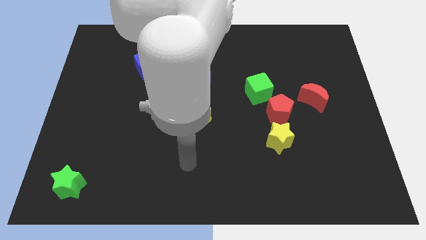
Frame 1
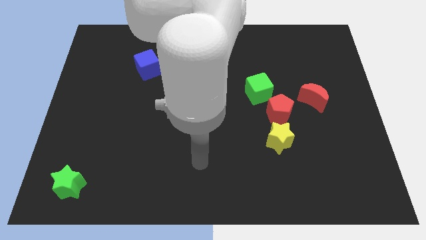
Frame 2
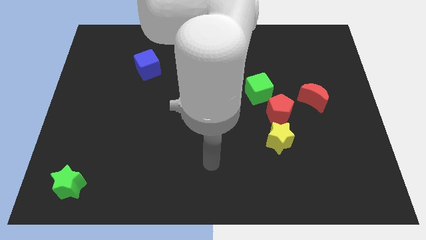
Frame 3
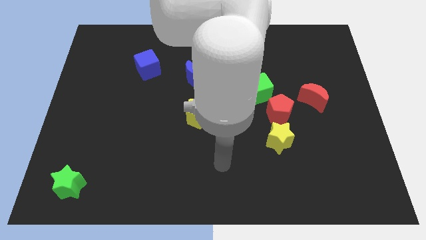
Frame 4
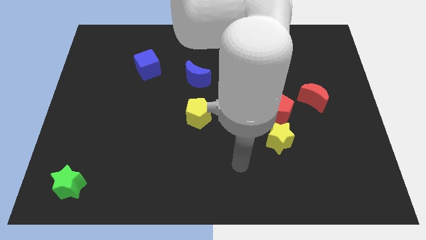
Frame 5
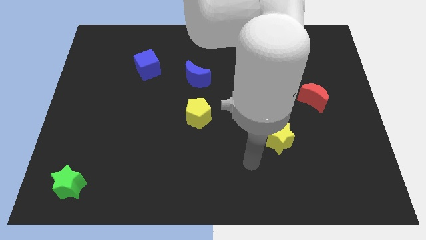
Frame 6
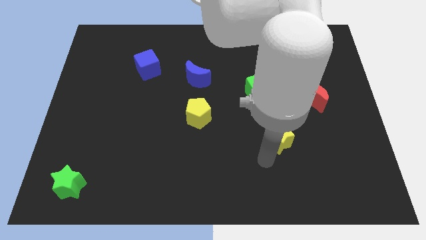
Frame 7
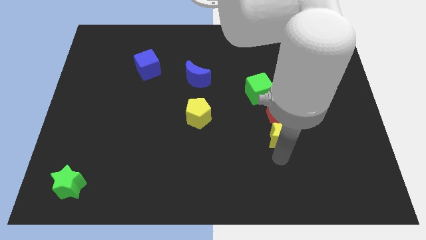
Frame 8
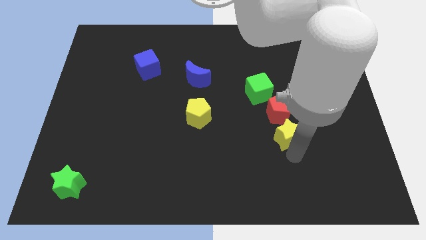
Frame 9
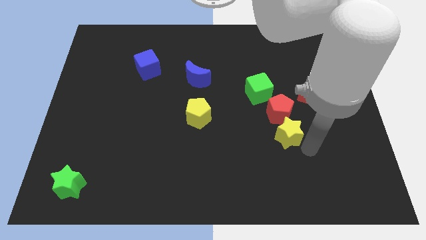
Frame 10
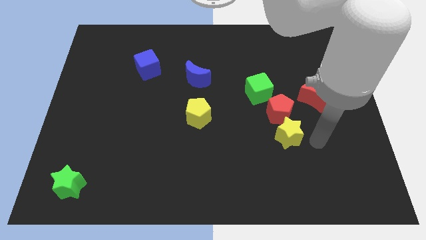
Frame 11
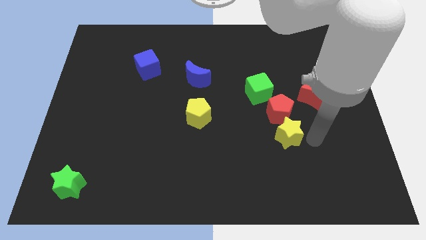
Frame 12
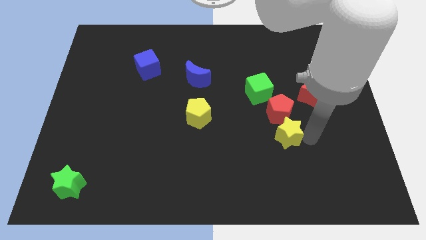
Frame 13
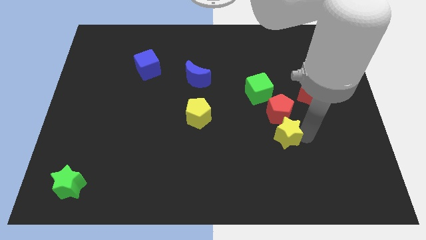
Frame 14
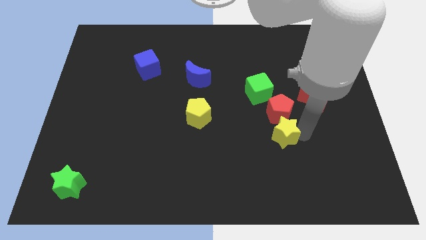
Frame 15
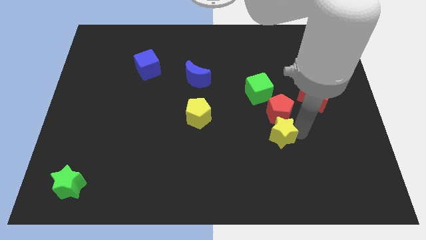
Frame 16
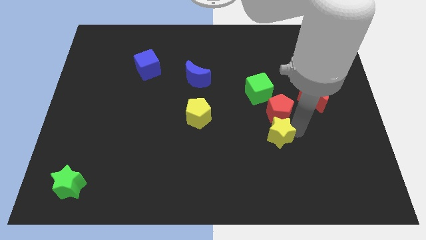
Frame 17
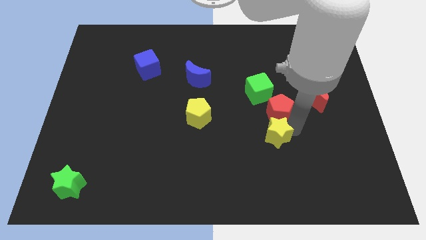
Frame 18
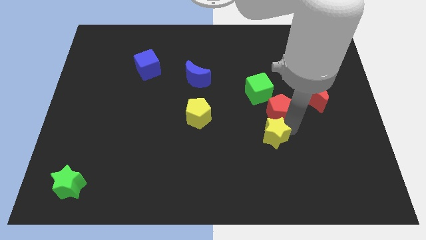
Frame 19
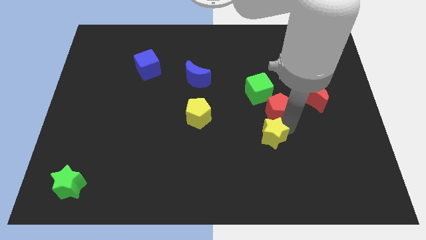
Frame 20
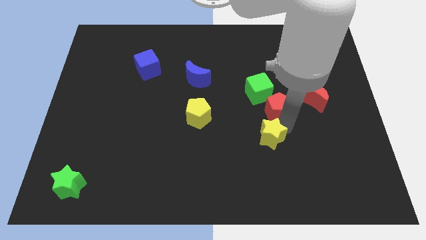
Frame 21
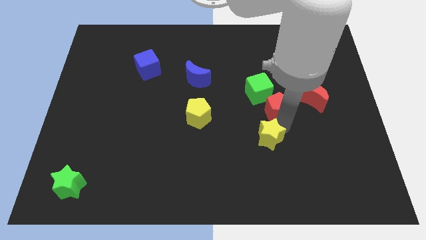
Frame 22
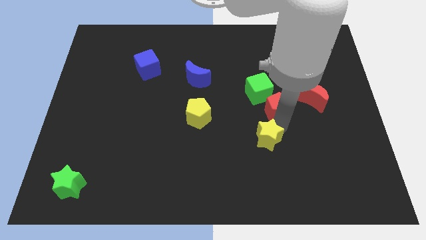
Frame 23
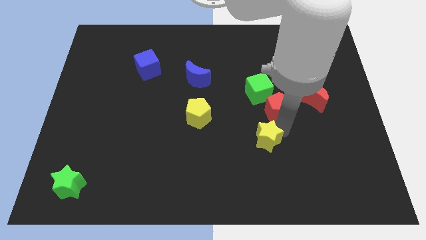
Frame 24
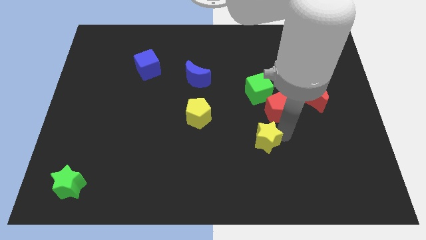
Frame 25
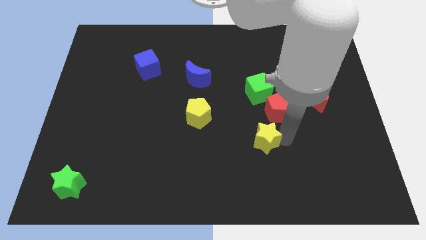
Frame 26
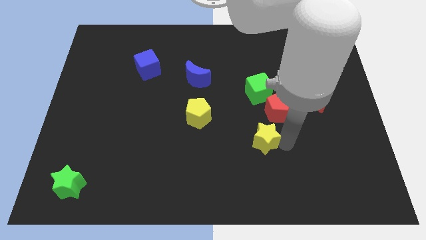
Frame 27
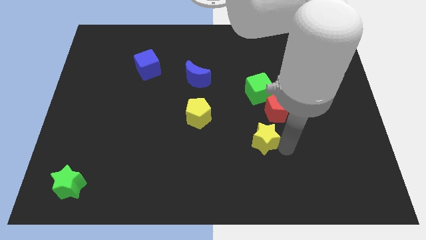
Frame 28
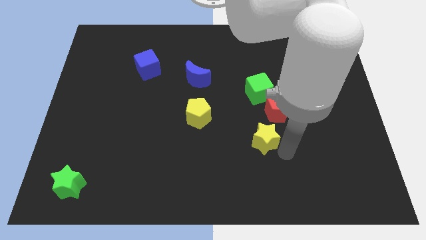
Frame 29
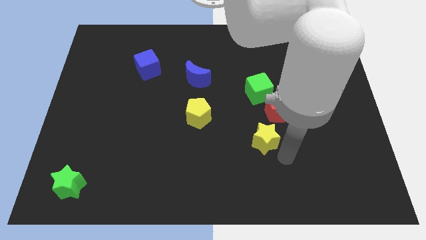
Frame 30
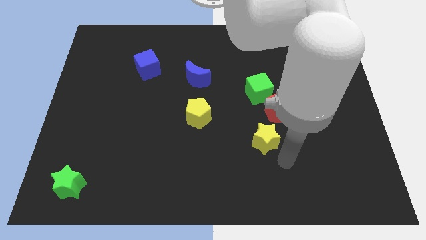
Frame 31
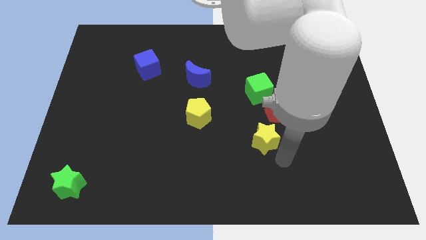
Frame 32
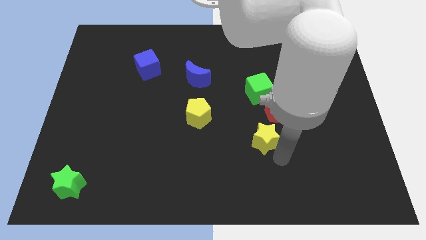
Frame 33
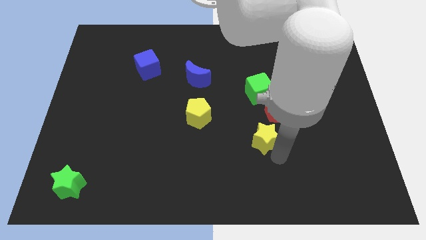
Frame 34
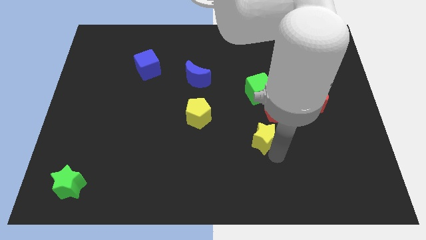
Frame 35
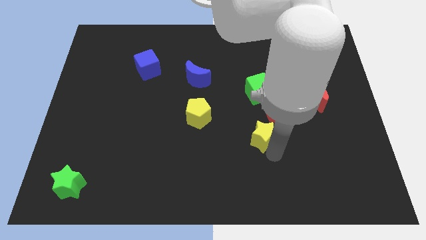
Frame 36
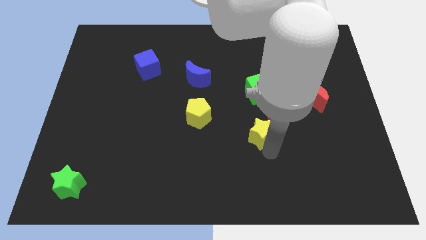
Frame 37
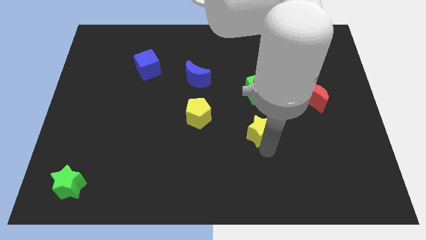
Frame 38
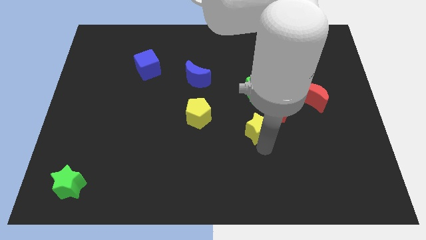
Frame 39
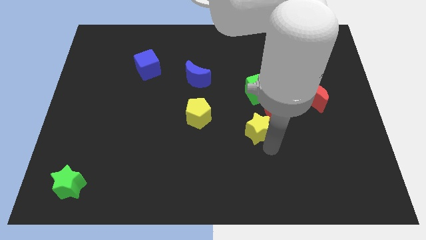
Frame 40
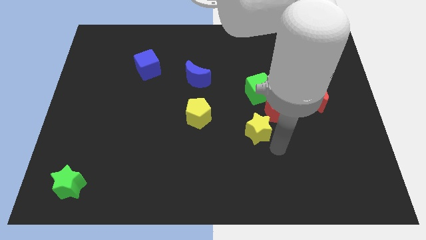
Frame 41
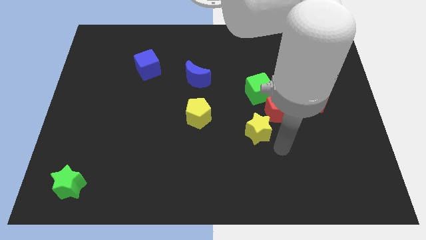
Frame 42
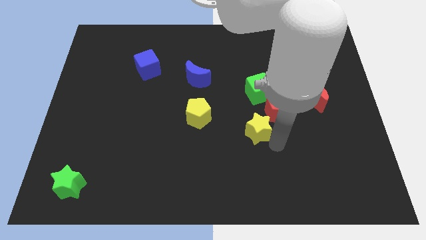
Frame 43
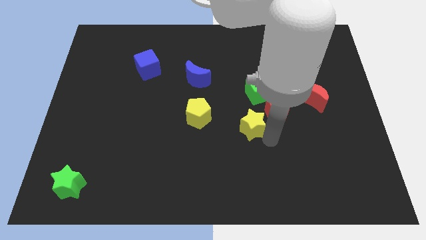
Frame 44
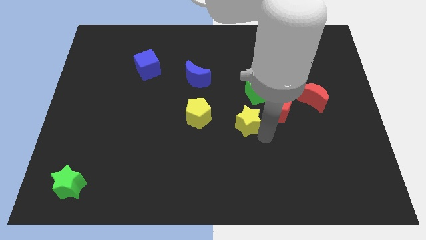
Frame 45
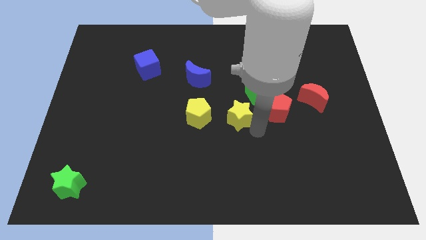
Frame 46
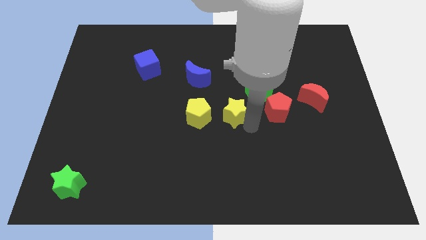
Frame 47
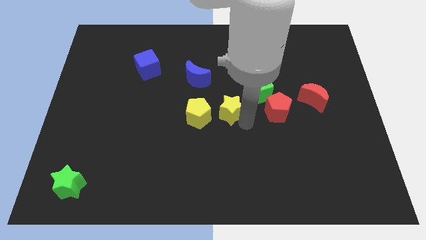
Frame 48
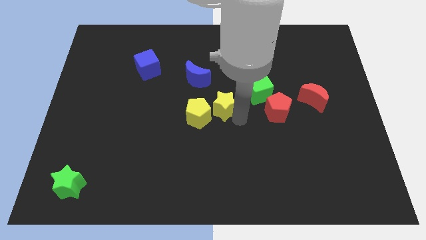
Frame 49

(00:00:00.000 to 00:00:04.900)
slide the yellow star just left of the green cube

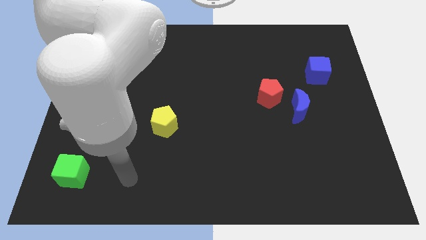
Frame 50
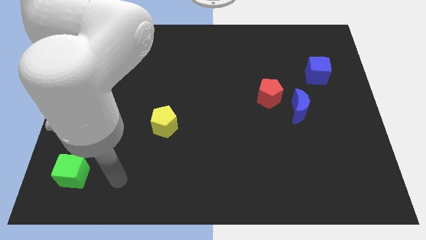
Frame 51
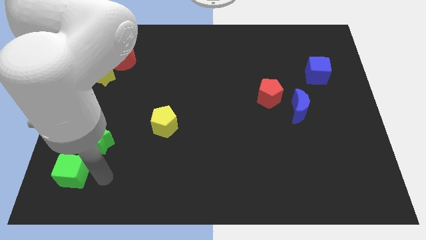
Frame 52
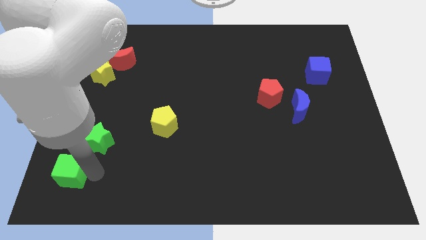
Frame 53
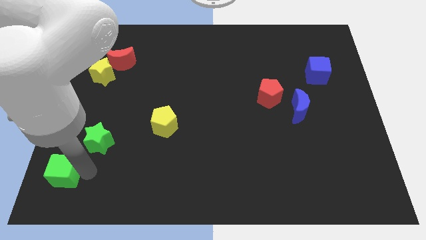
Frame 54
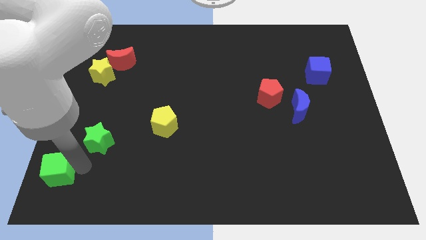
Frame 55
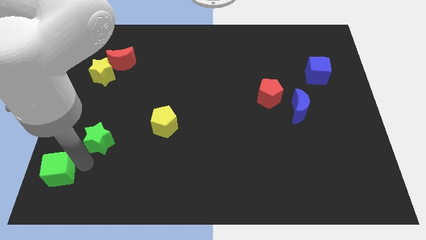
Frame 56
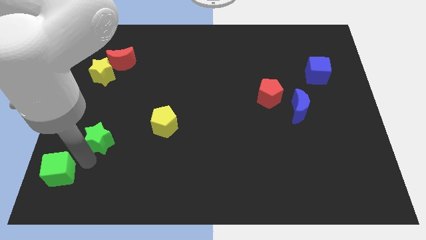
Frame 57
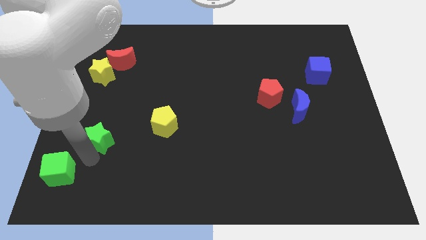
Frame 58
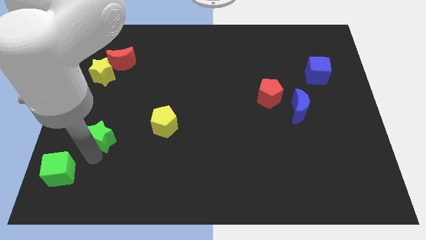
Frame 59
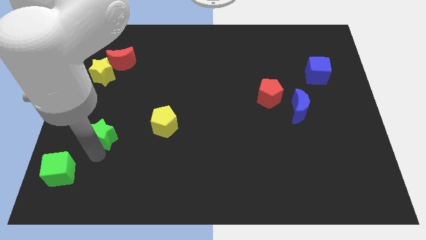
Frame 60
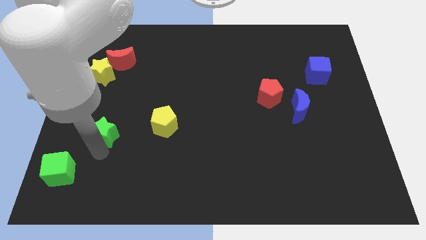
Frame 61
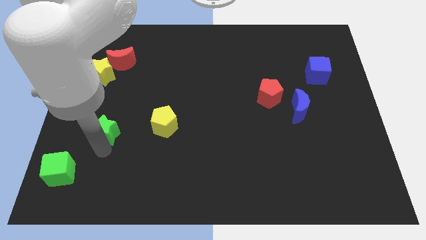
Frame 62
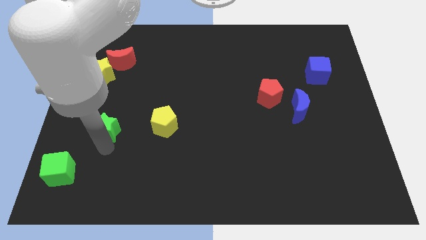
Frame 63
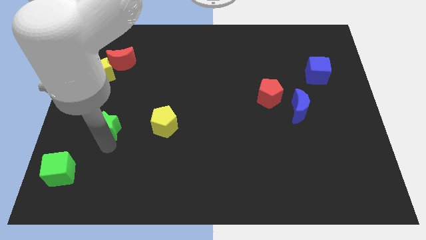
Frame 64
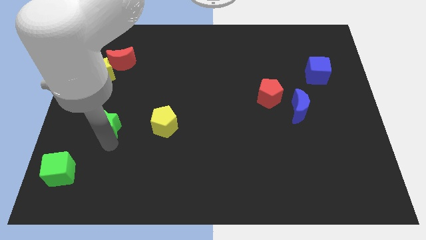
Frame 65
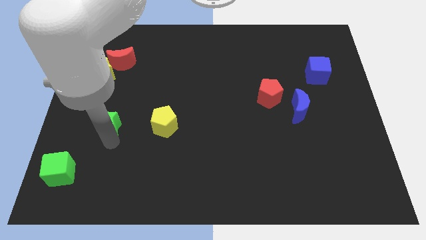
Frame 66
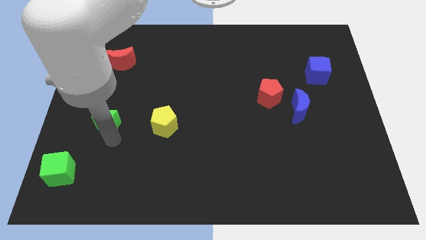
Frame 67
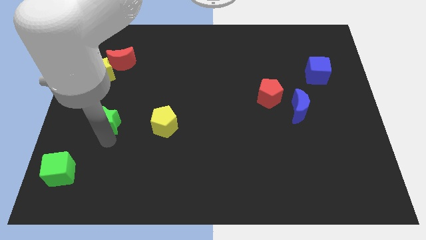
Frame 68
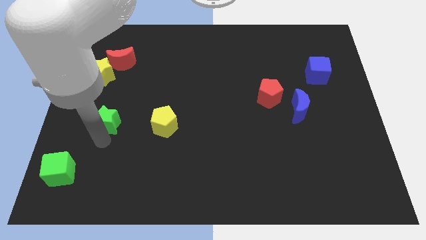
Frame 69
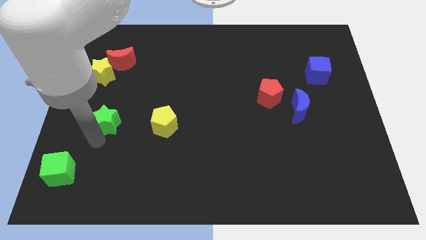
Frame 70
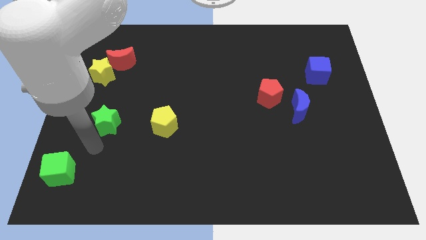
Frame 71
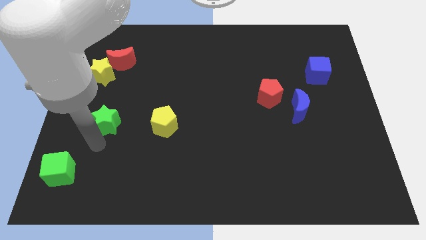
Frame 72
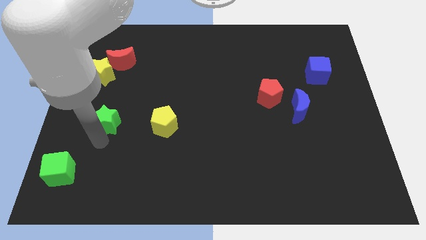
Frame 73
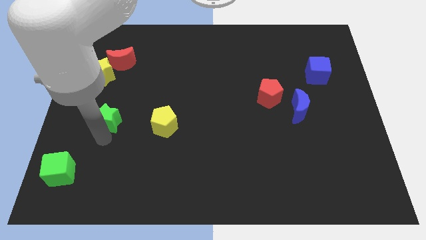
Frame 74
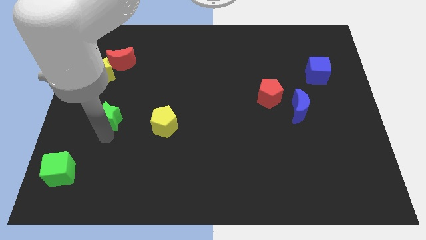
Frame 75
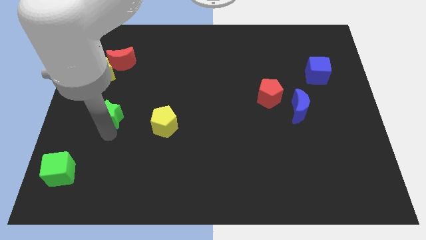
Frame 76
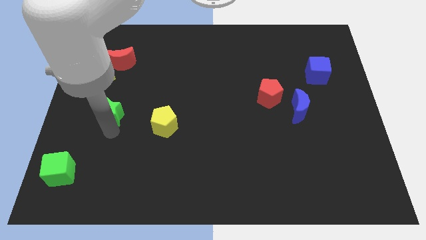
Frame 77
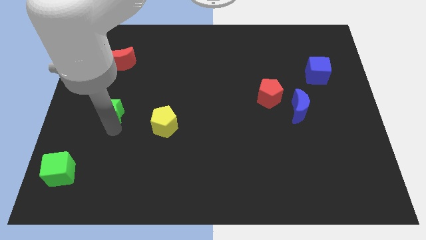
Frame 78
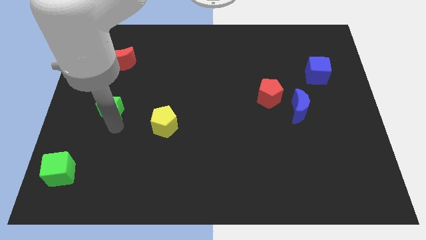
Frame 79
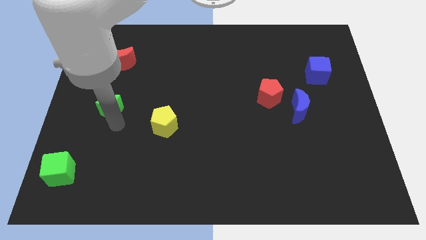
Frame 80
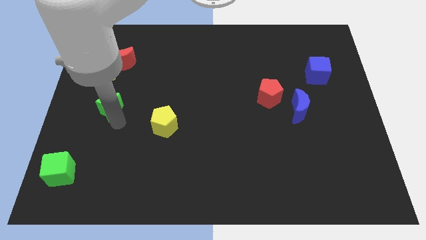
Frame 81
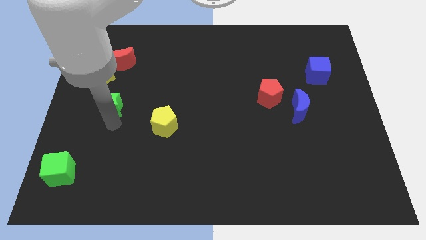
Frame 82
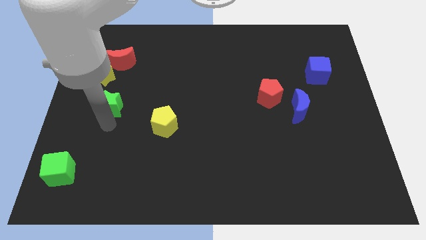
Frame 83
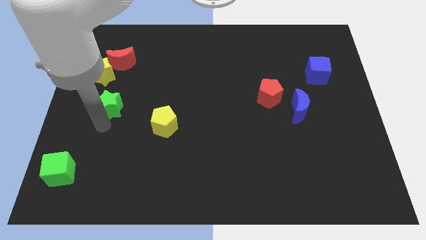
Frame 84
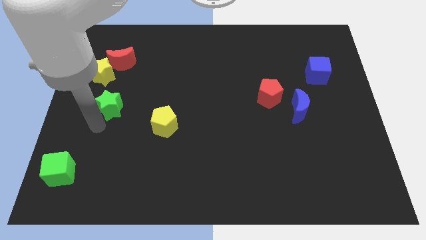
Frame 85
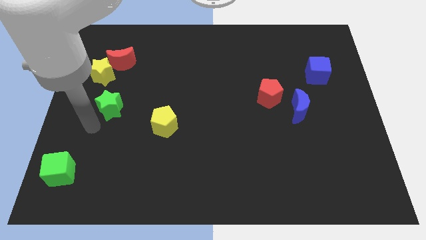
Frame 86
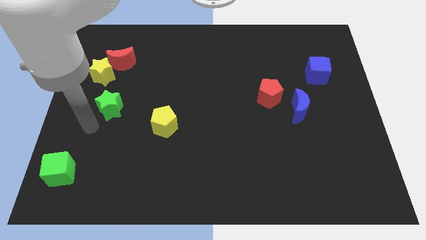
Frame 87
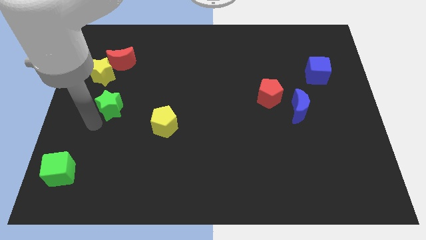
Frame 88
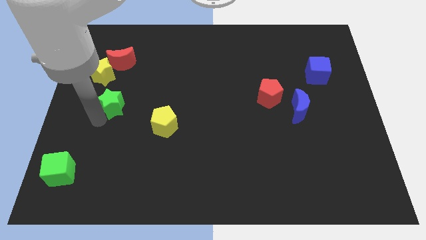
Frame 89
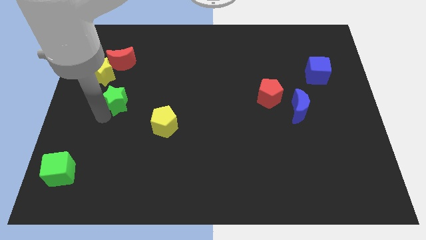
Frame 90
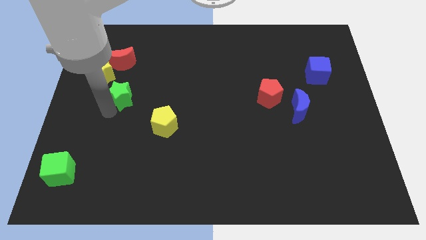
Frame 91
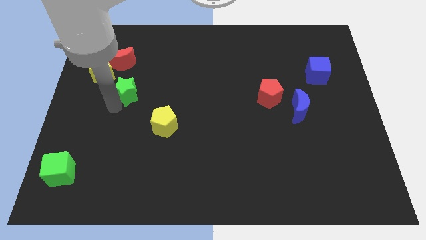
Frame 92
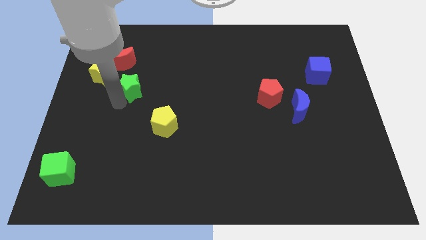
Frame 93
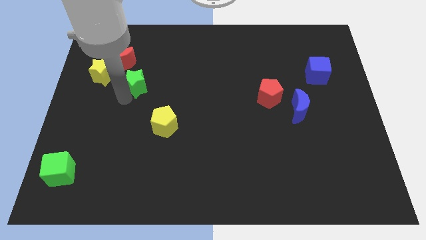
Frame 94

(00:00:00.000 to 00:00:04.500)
slide the green star right of the yellow star
